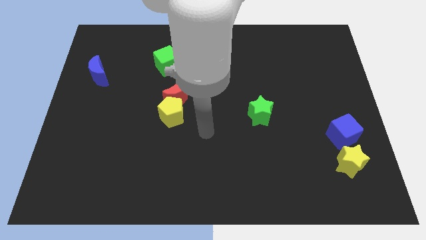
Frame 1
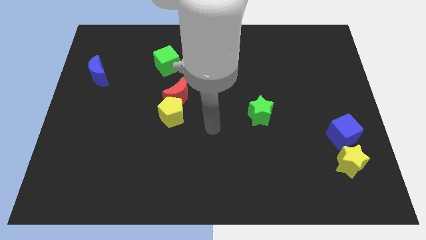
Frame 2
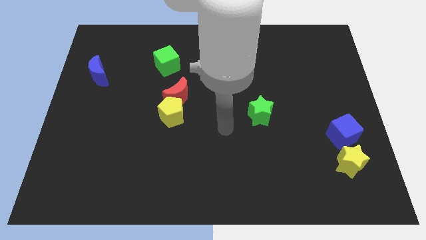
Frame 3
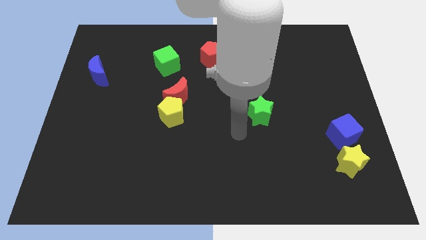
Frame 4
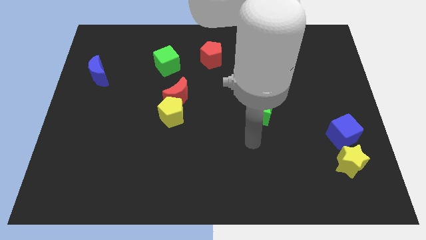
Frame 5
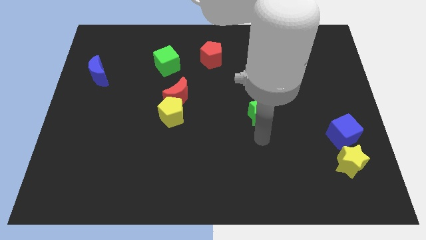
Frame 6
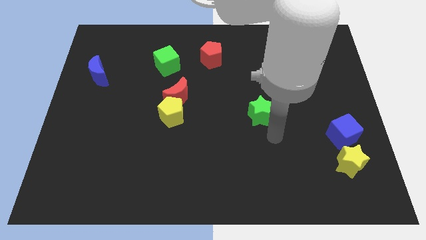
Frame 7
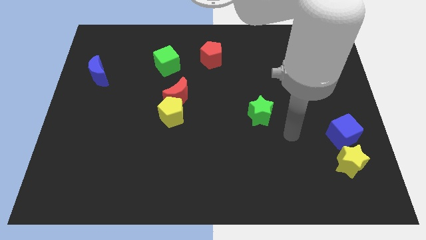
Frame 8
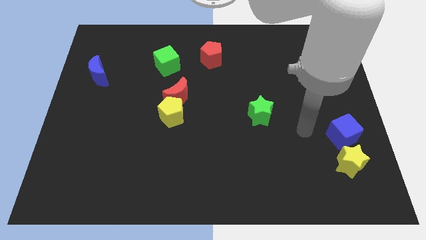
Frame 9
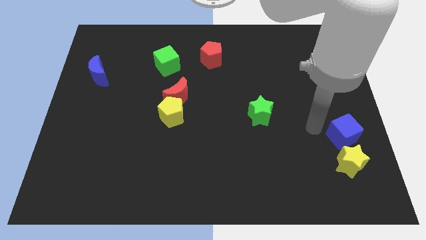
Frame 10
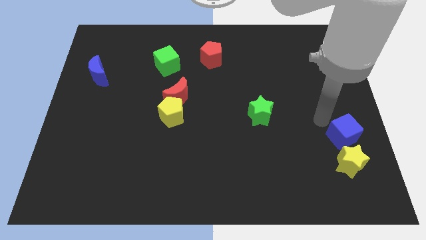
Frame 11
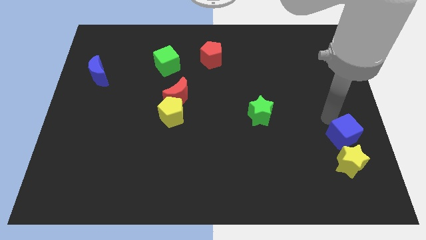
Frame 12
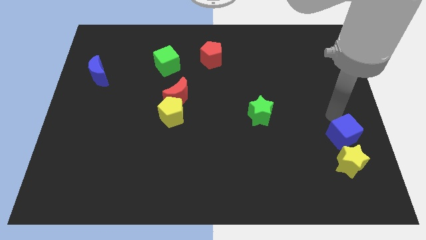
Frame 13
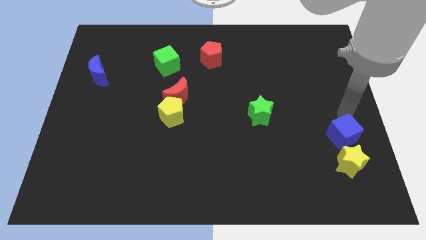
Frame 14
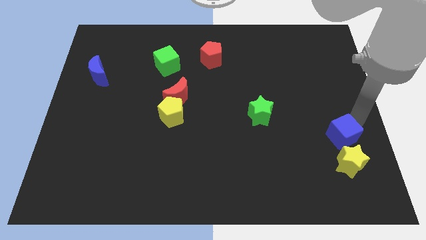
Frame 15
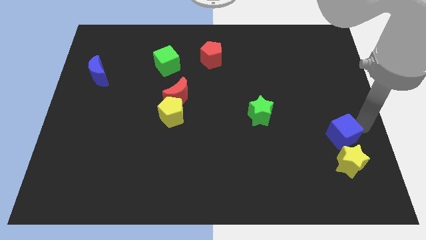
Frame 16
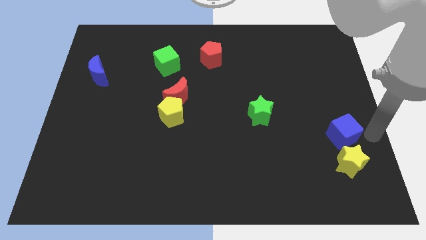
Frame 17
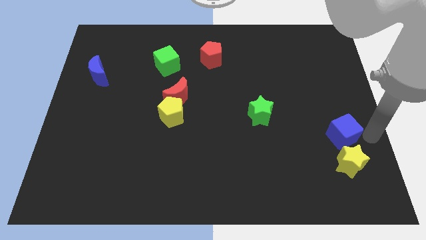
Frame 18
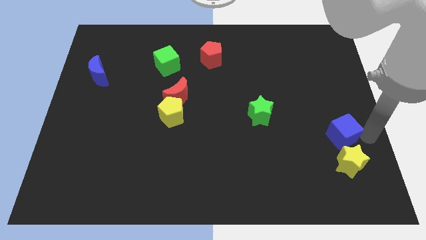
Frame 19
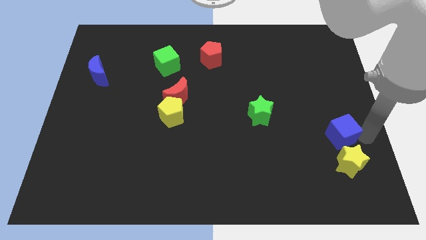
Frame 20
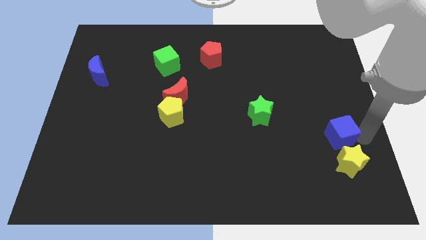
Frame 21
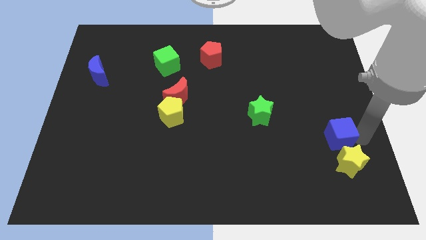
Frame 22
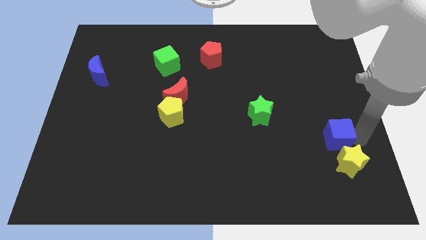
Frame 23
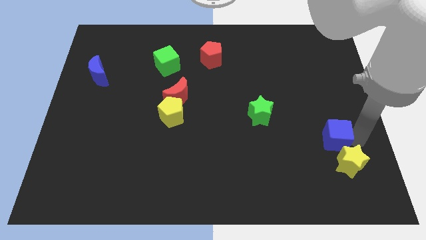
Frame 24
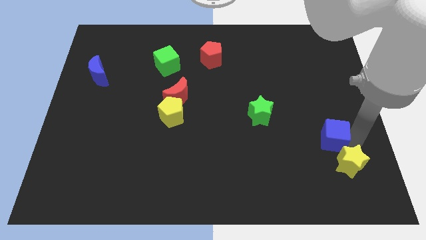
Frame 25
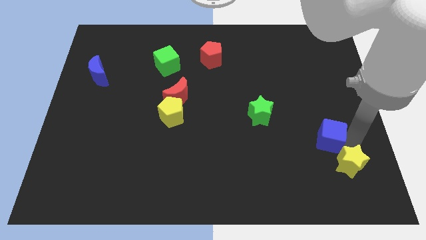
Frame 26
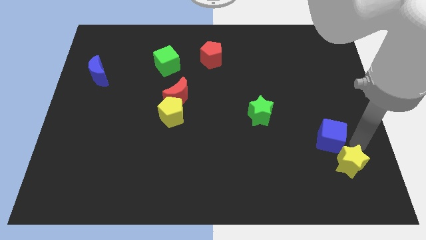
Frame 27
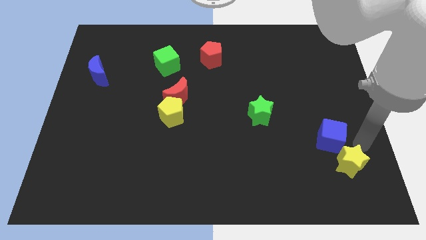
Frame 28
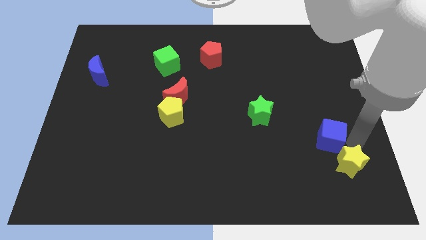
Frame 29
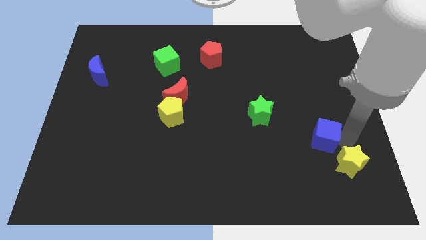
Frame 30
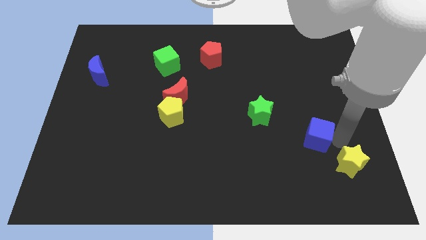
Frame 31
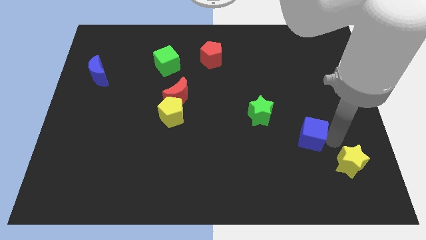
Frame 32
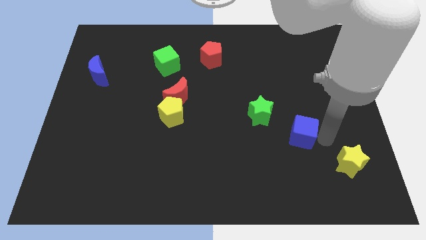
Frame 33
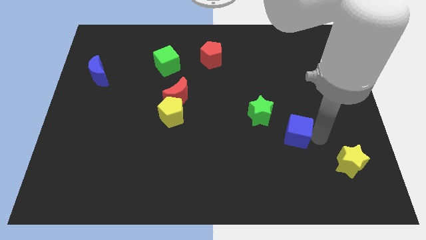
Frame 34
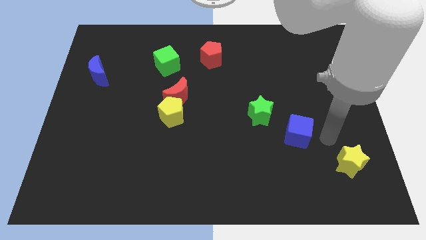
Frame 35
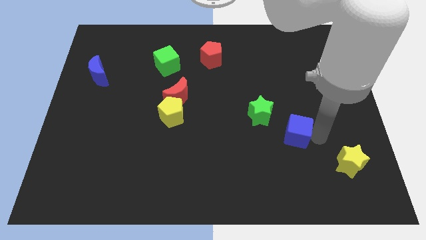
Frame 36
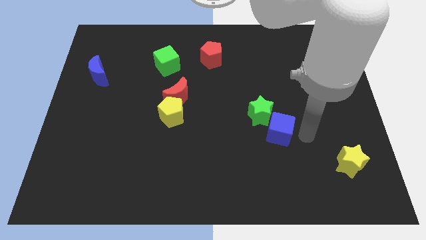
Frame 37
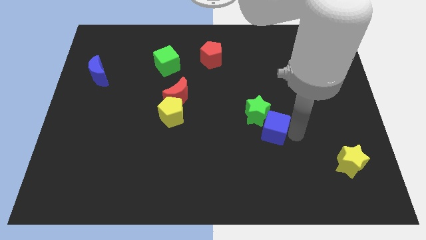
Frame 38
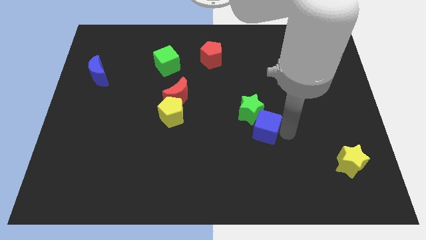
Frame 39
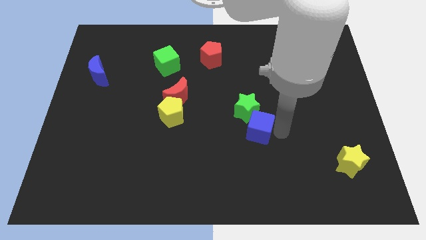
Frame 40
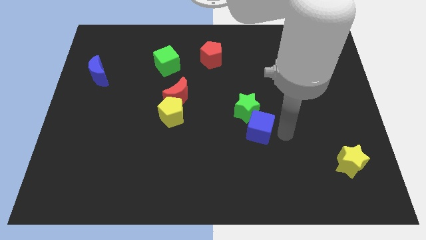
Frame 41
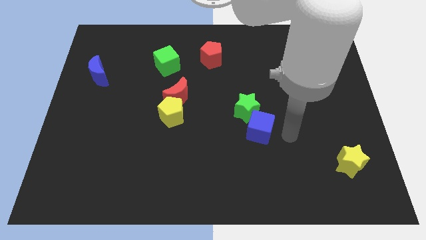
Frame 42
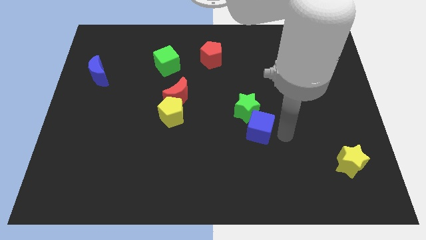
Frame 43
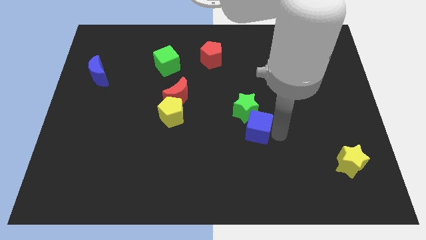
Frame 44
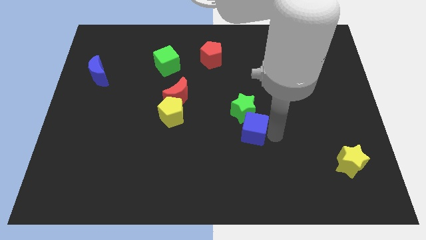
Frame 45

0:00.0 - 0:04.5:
push the blue cube to the middle

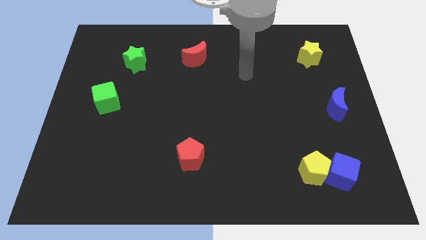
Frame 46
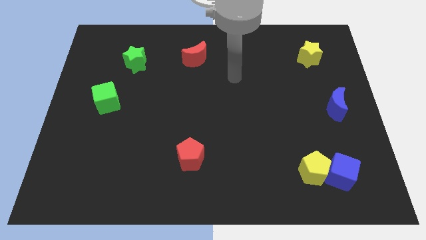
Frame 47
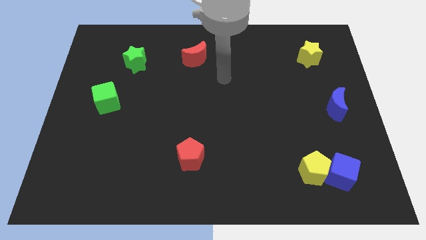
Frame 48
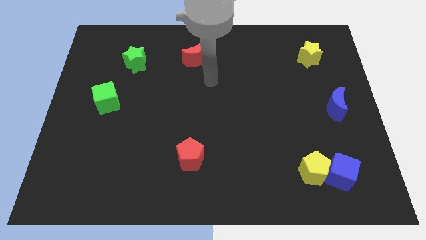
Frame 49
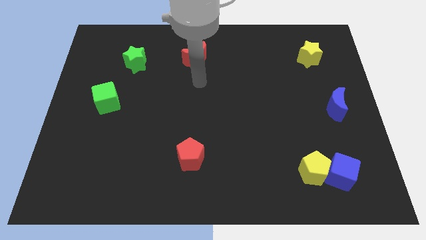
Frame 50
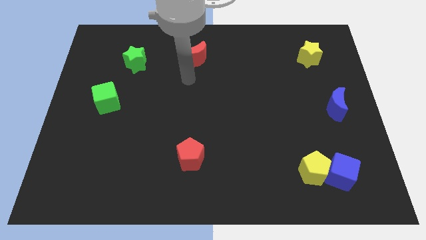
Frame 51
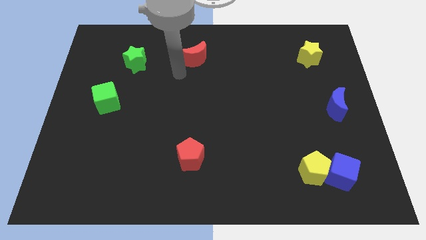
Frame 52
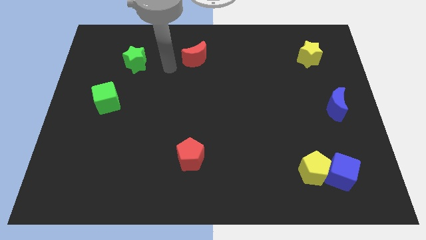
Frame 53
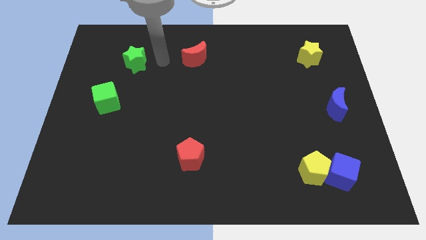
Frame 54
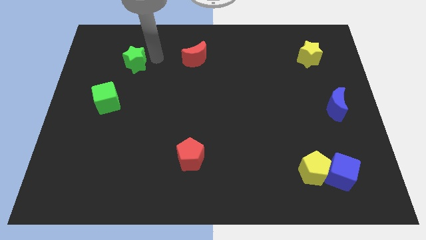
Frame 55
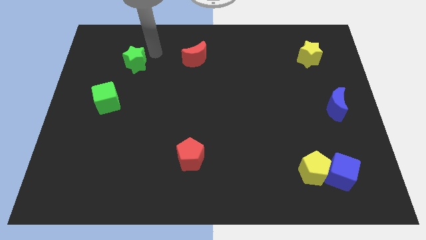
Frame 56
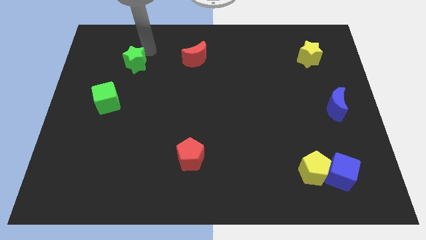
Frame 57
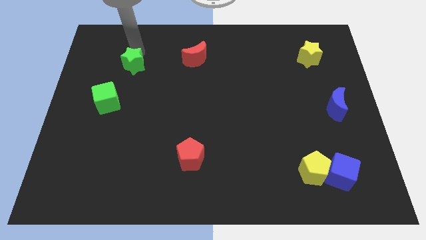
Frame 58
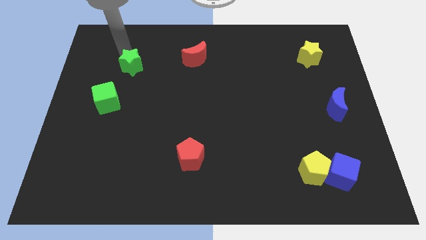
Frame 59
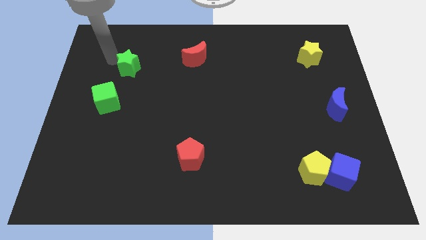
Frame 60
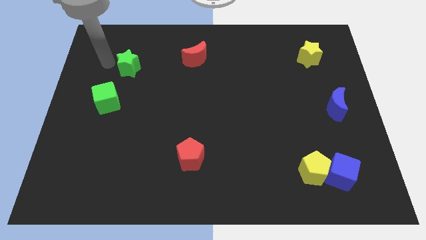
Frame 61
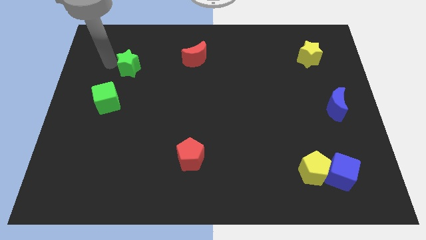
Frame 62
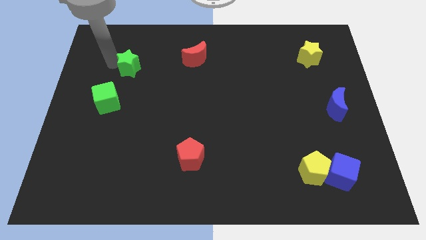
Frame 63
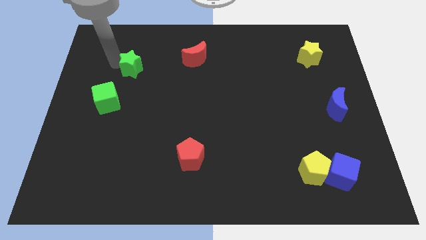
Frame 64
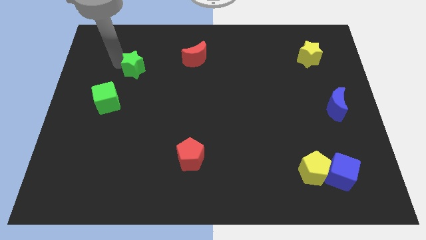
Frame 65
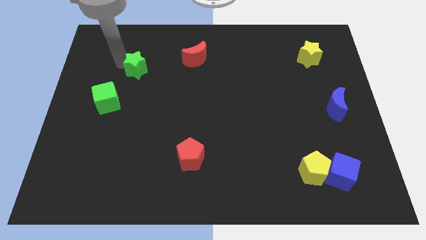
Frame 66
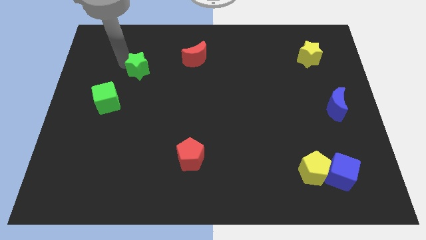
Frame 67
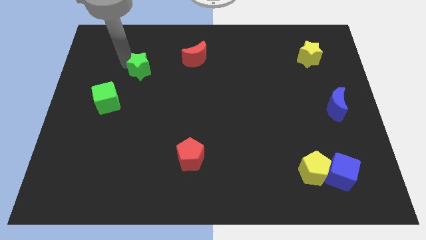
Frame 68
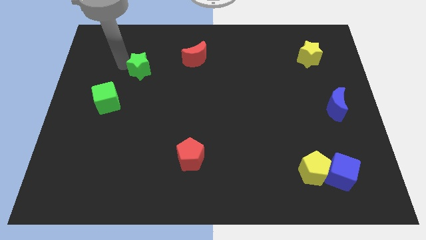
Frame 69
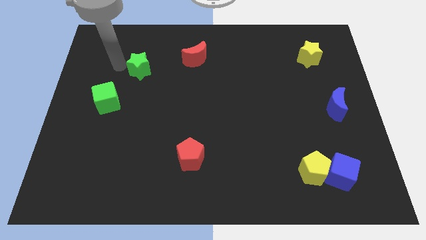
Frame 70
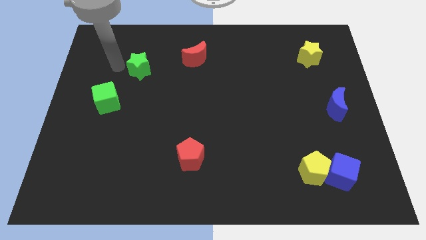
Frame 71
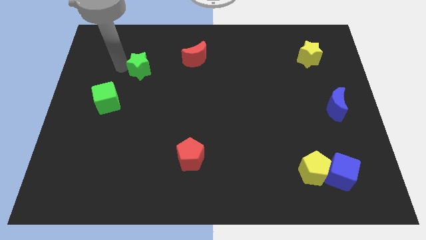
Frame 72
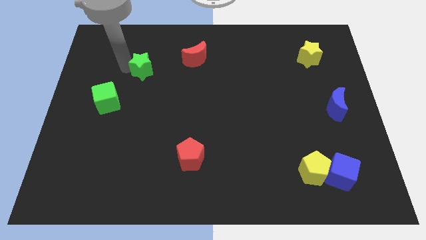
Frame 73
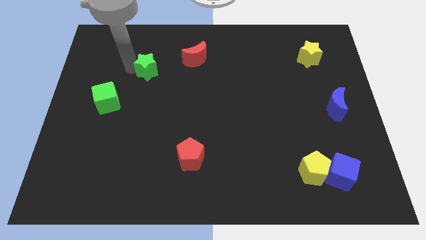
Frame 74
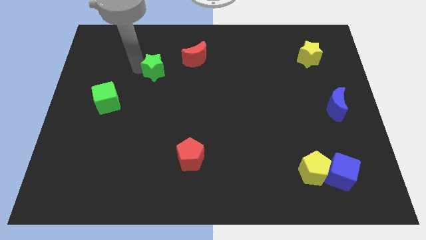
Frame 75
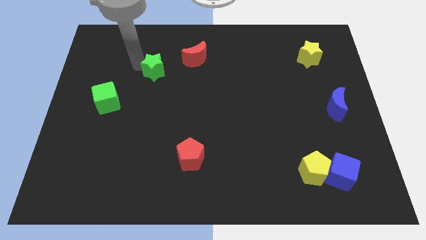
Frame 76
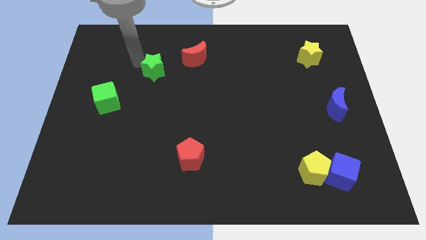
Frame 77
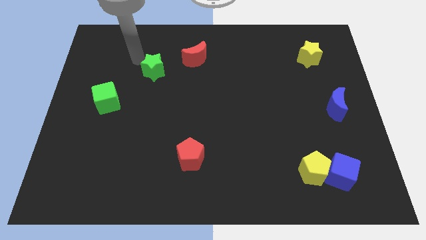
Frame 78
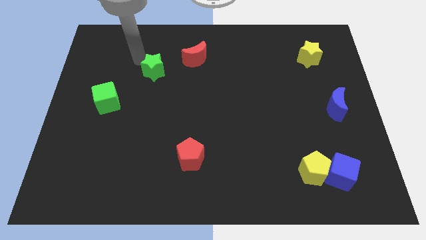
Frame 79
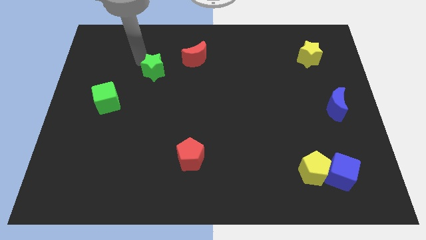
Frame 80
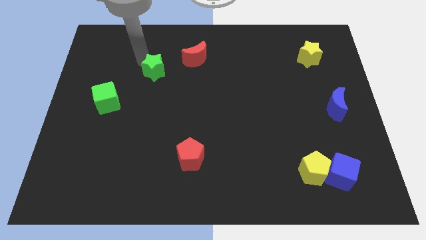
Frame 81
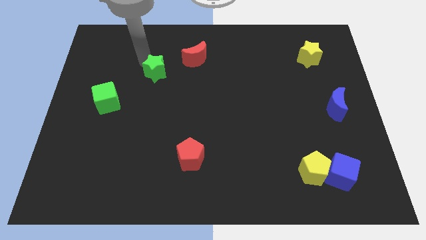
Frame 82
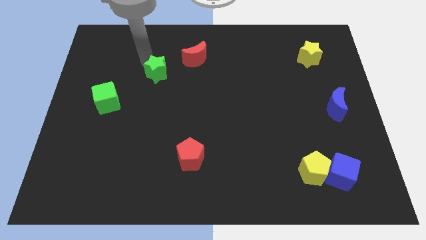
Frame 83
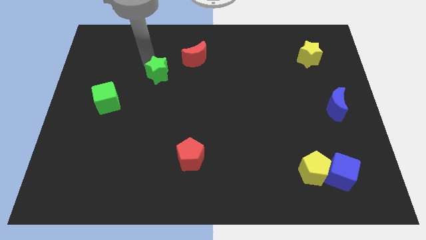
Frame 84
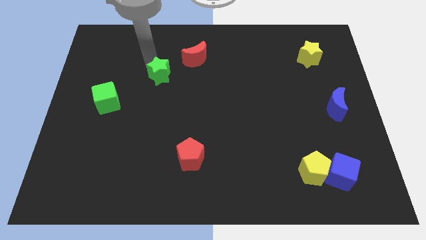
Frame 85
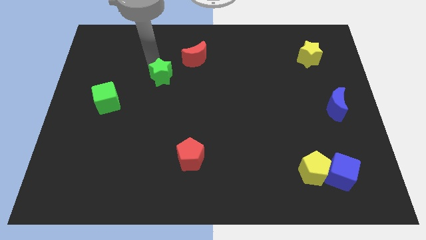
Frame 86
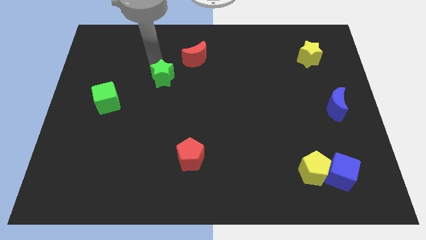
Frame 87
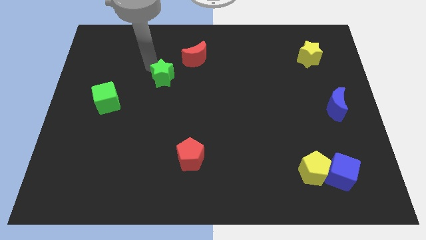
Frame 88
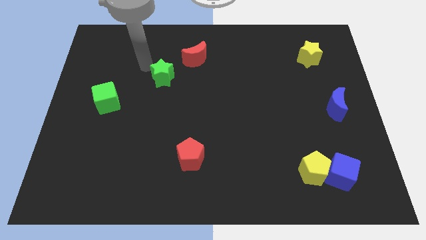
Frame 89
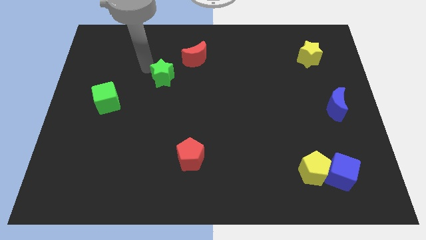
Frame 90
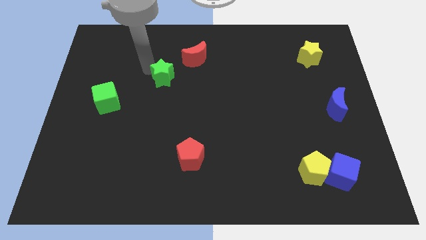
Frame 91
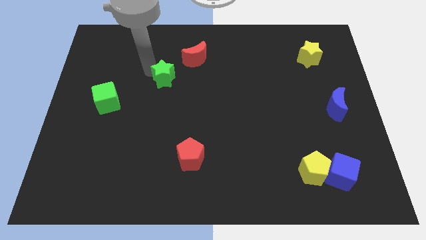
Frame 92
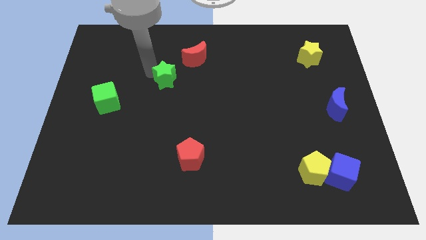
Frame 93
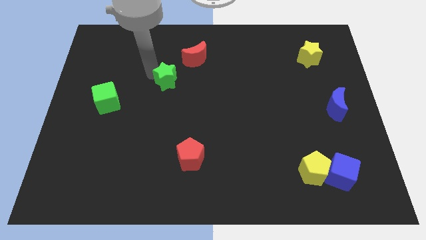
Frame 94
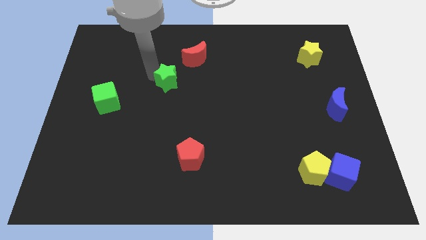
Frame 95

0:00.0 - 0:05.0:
slide the green star to the middle of the board
